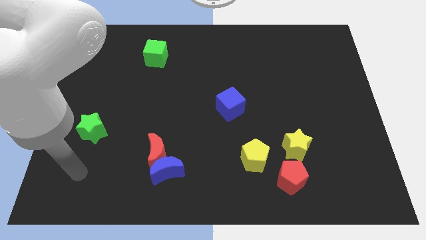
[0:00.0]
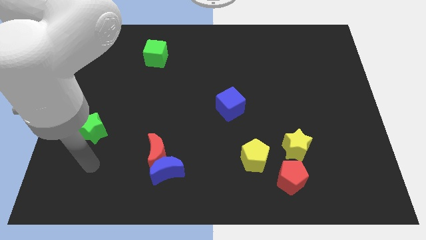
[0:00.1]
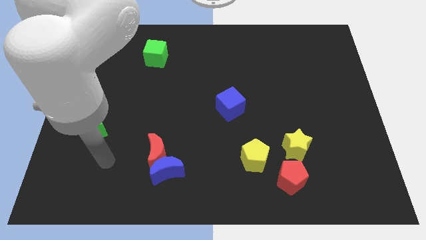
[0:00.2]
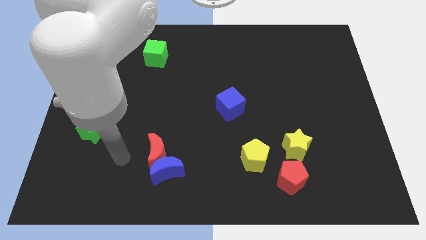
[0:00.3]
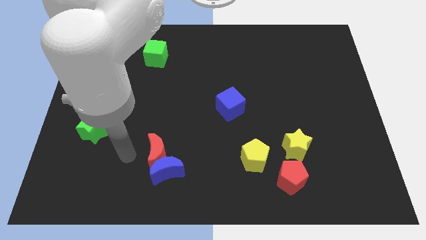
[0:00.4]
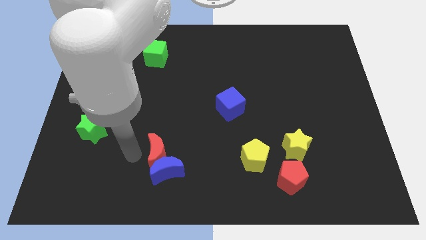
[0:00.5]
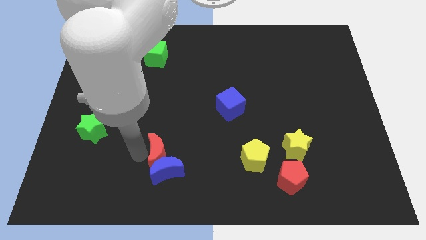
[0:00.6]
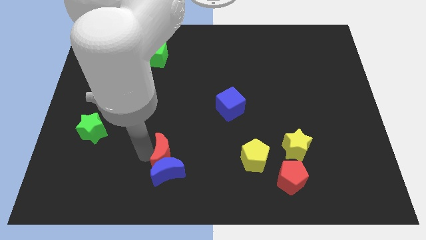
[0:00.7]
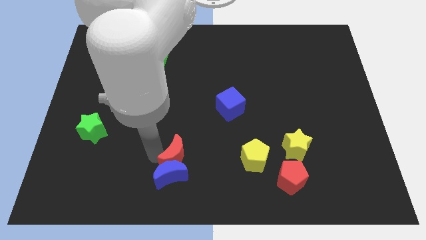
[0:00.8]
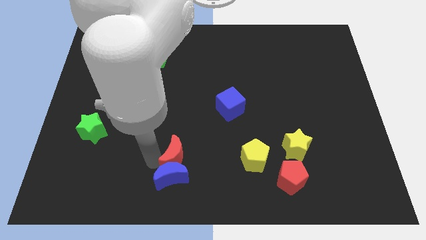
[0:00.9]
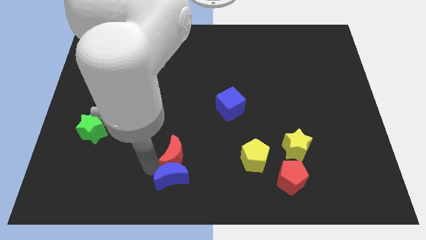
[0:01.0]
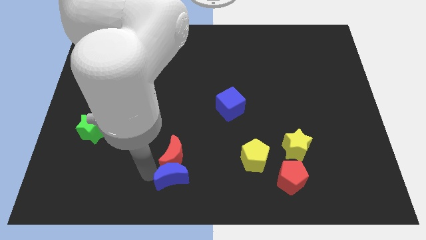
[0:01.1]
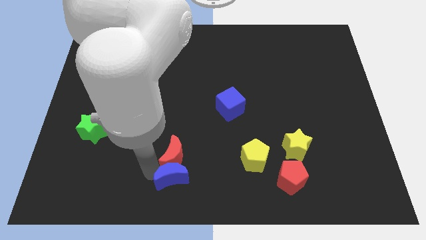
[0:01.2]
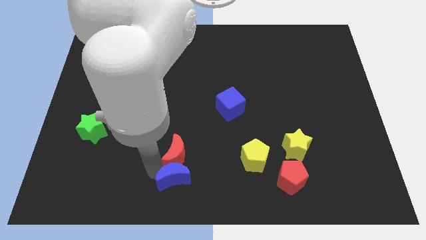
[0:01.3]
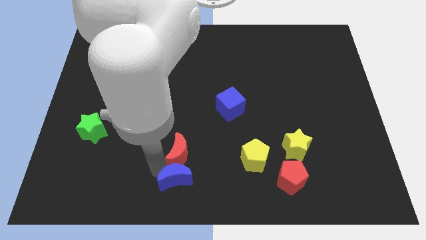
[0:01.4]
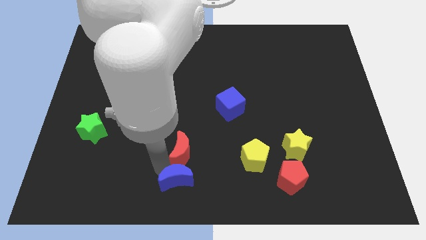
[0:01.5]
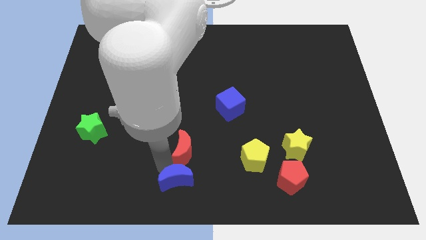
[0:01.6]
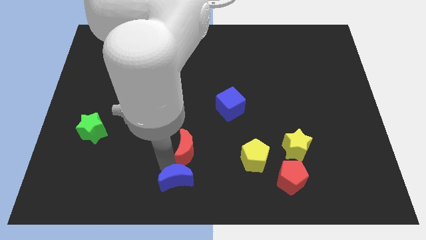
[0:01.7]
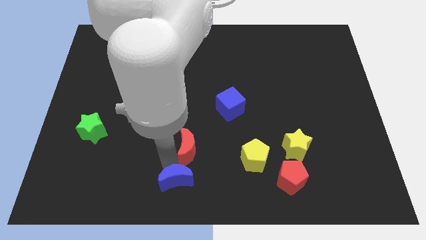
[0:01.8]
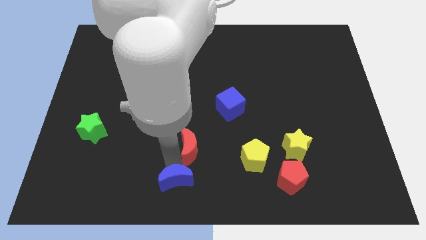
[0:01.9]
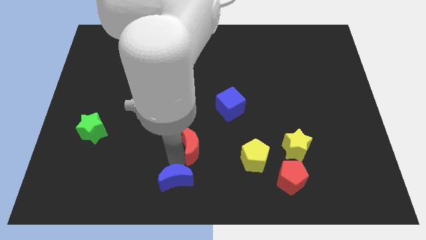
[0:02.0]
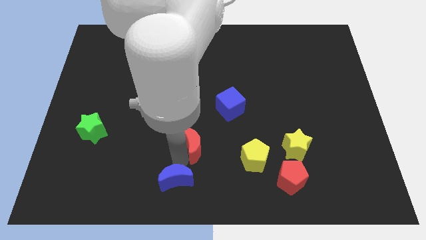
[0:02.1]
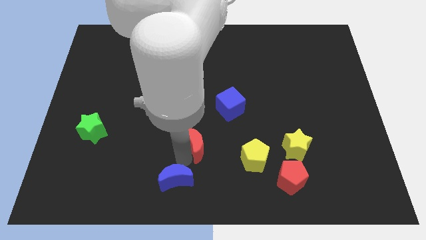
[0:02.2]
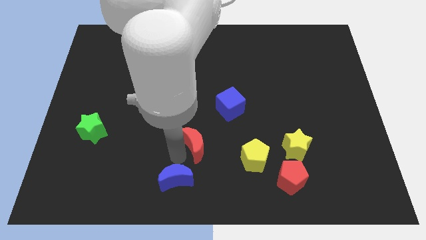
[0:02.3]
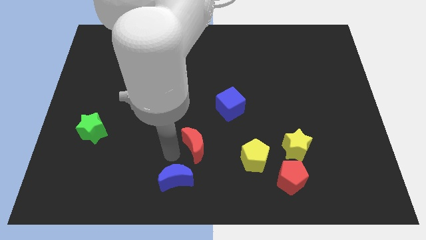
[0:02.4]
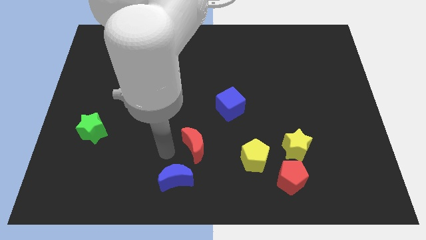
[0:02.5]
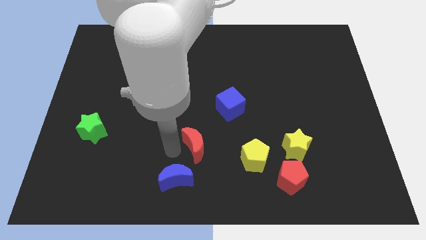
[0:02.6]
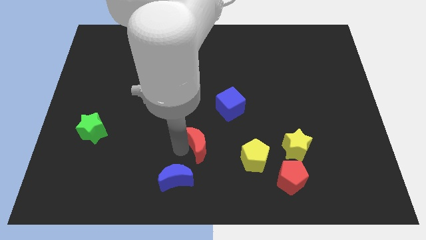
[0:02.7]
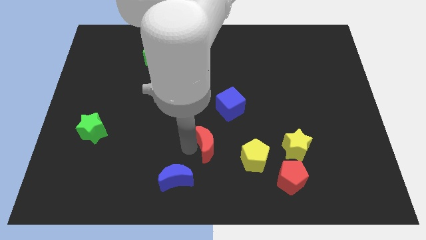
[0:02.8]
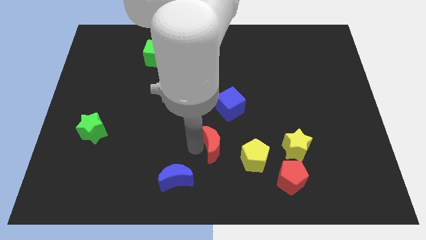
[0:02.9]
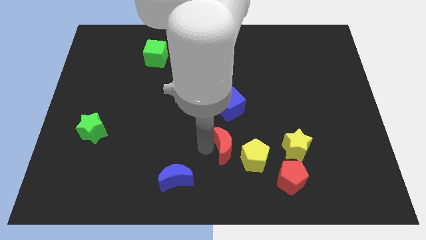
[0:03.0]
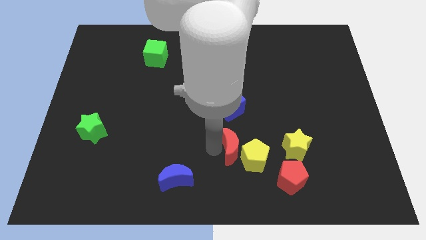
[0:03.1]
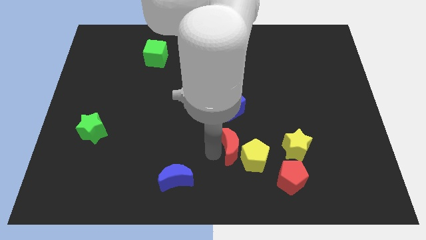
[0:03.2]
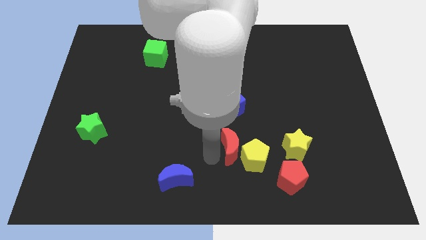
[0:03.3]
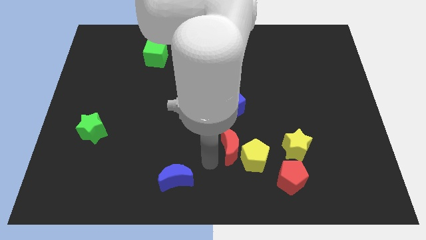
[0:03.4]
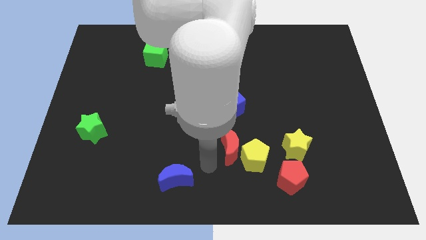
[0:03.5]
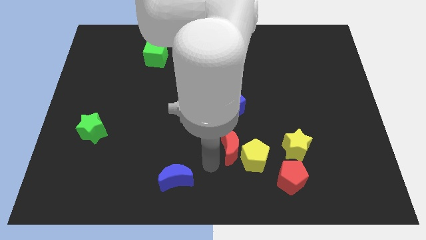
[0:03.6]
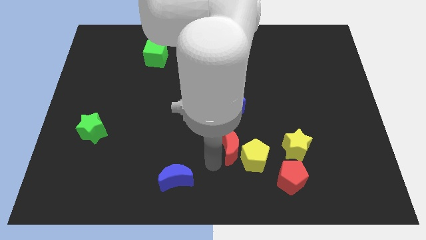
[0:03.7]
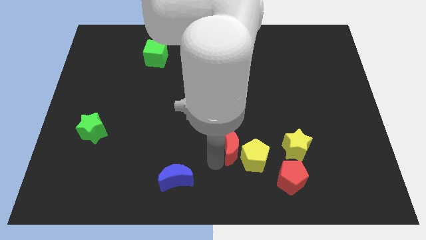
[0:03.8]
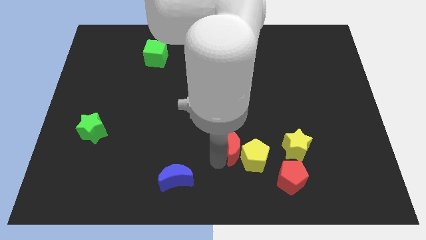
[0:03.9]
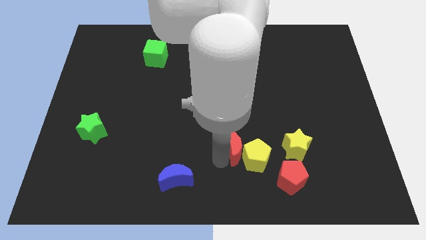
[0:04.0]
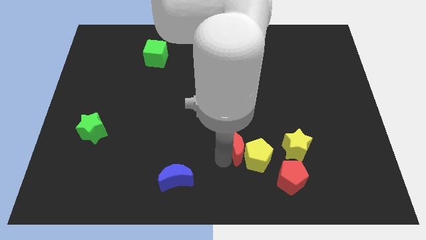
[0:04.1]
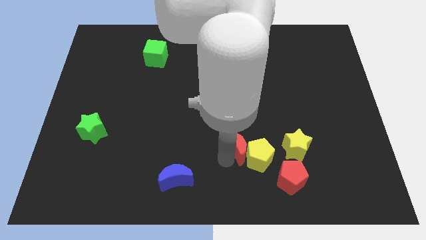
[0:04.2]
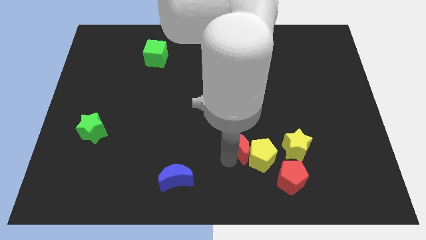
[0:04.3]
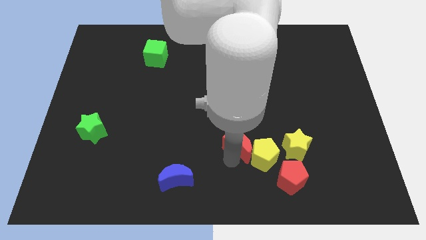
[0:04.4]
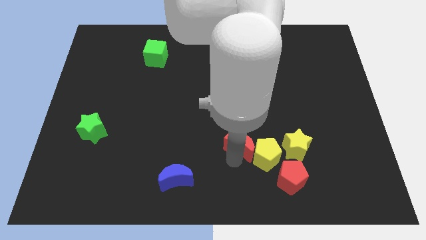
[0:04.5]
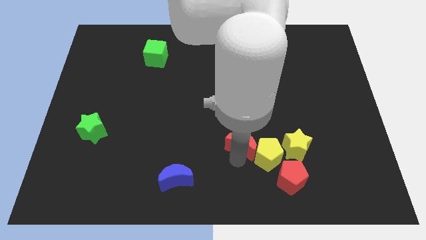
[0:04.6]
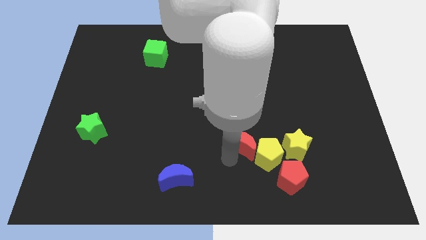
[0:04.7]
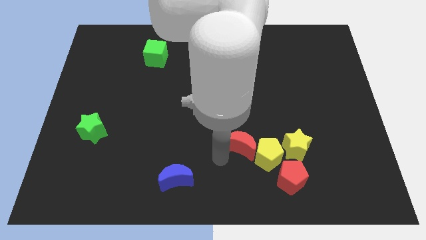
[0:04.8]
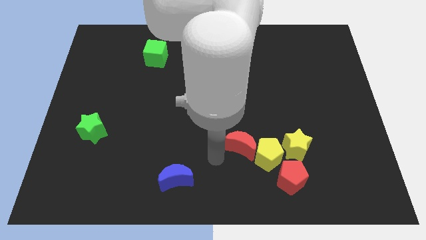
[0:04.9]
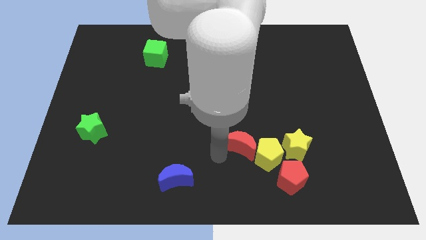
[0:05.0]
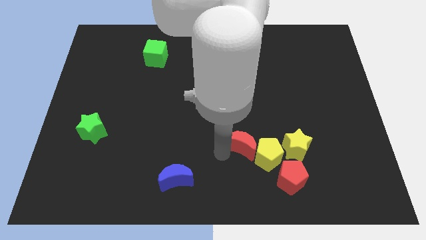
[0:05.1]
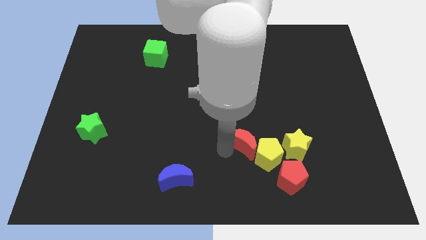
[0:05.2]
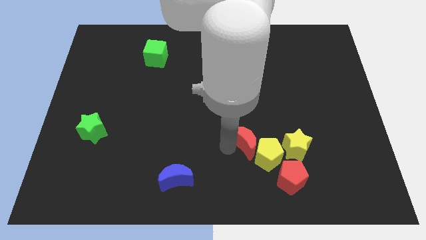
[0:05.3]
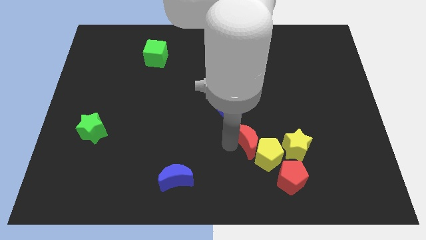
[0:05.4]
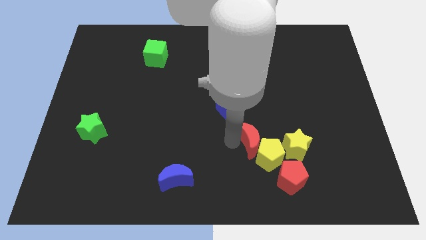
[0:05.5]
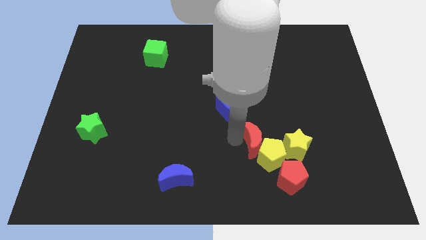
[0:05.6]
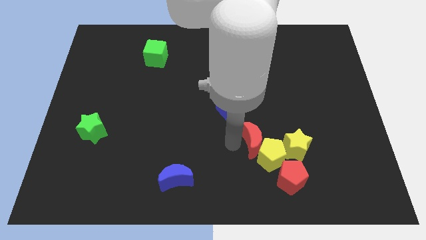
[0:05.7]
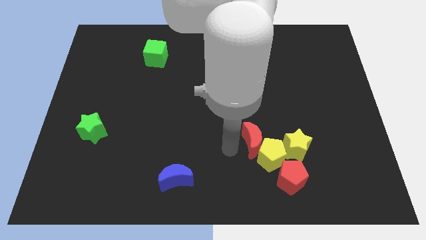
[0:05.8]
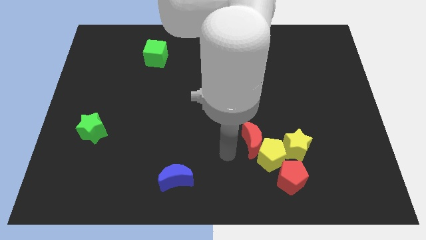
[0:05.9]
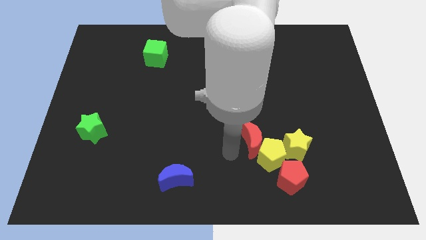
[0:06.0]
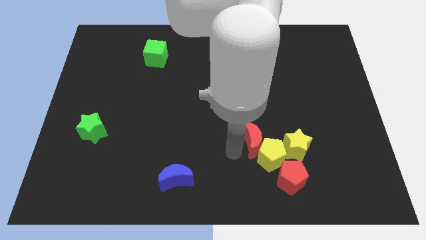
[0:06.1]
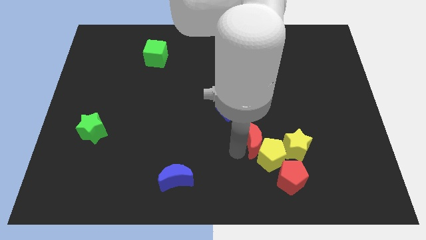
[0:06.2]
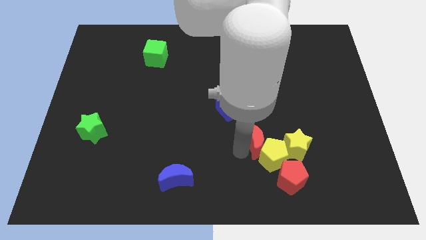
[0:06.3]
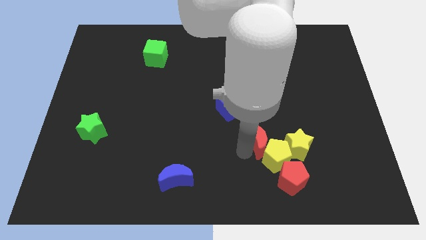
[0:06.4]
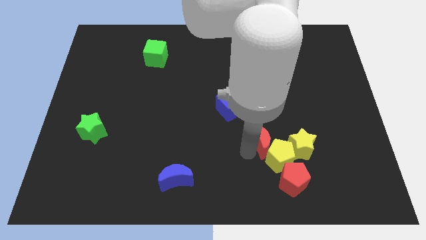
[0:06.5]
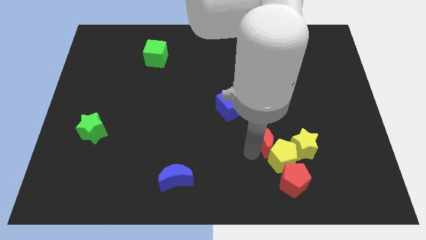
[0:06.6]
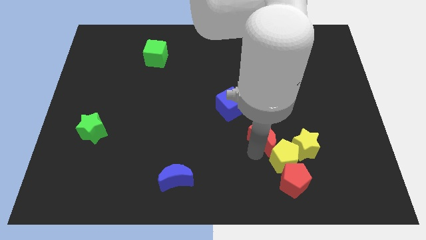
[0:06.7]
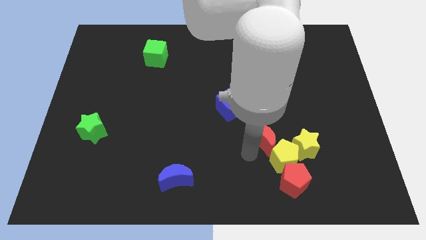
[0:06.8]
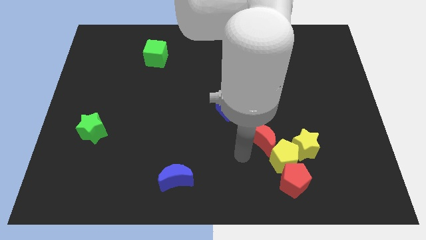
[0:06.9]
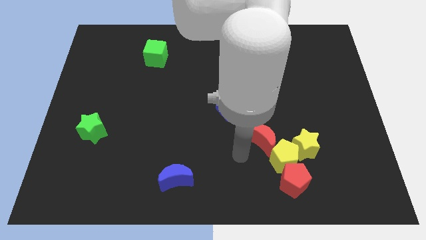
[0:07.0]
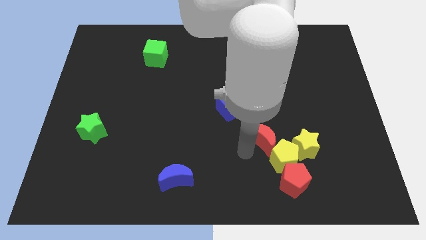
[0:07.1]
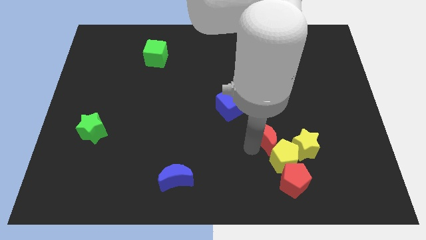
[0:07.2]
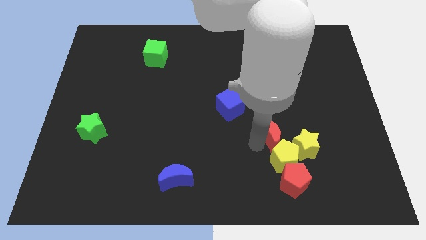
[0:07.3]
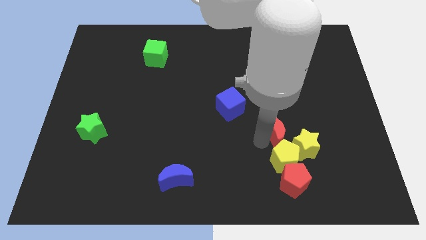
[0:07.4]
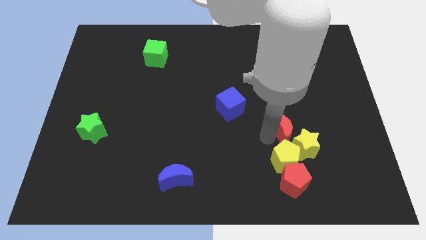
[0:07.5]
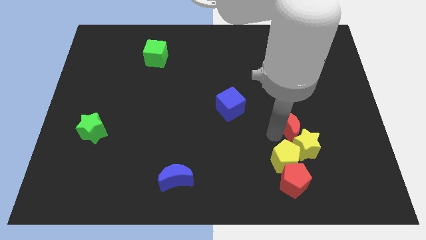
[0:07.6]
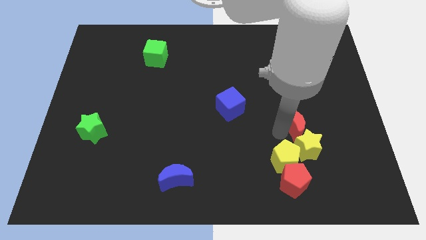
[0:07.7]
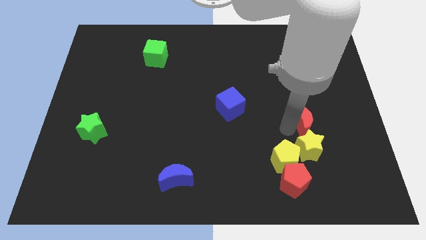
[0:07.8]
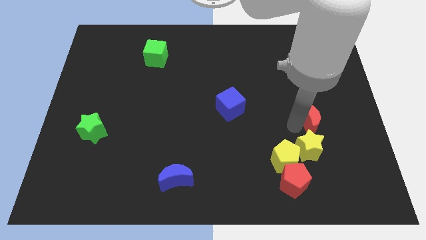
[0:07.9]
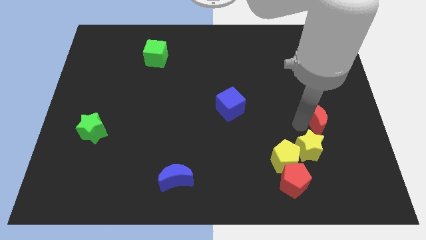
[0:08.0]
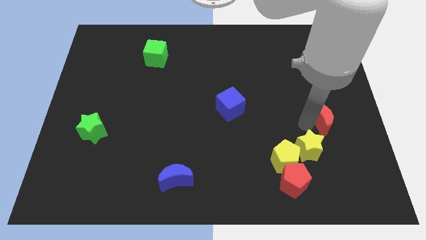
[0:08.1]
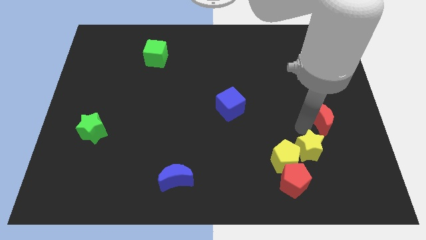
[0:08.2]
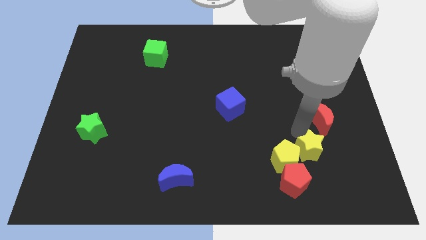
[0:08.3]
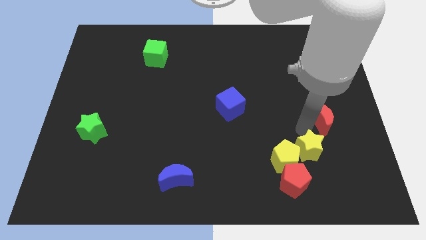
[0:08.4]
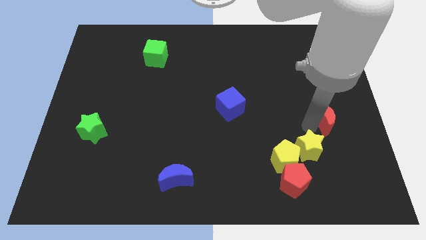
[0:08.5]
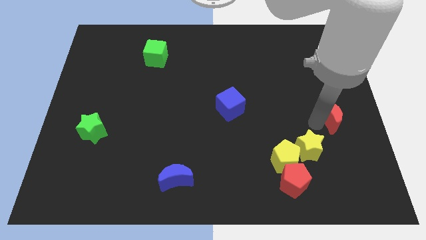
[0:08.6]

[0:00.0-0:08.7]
push the red moon to the right side
